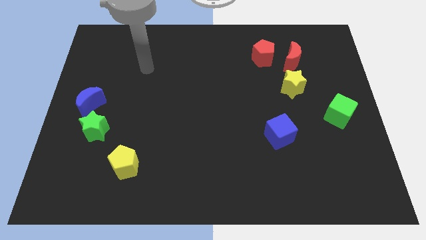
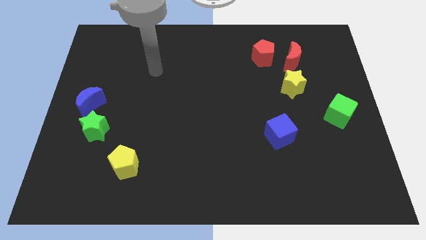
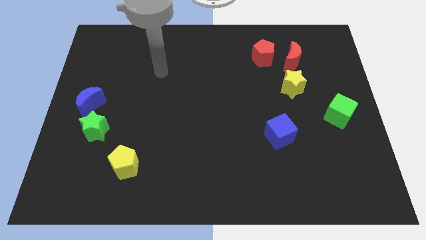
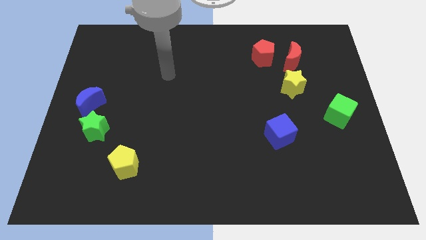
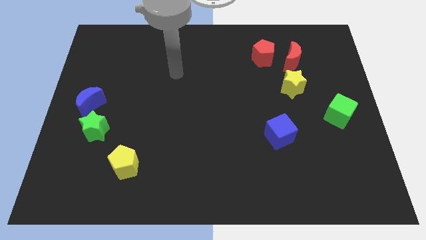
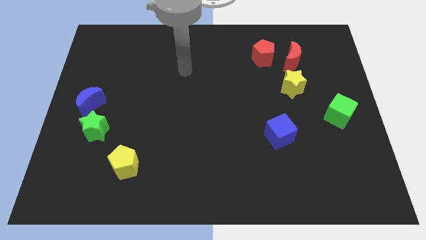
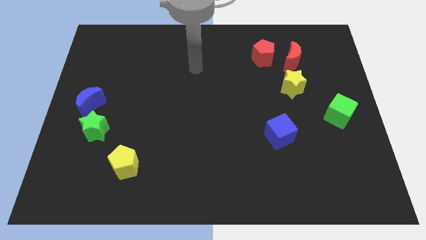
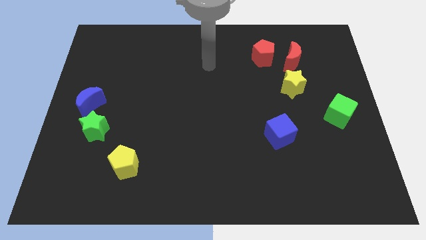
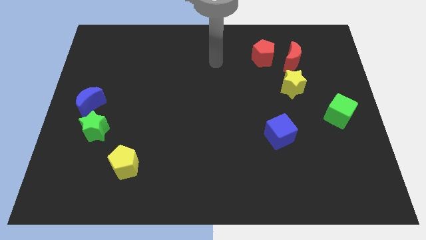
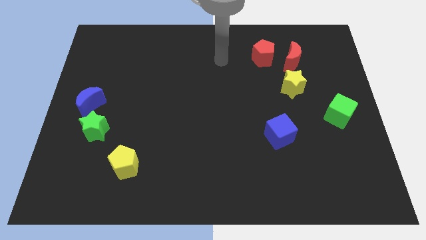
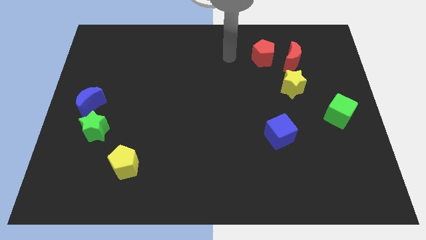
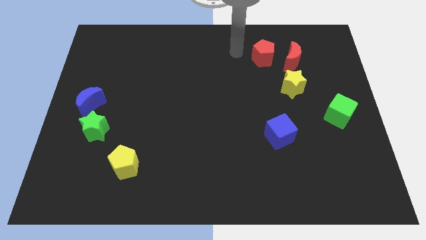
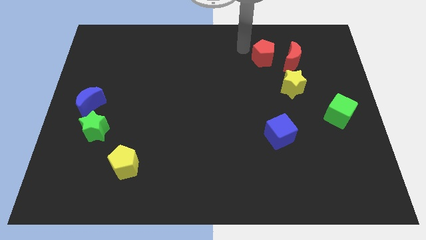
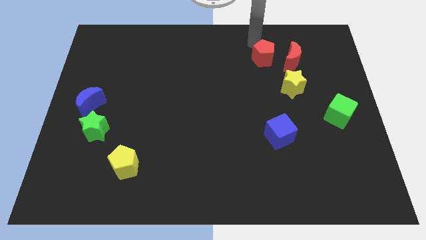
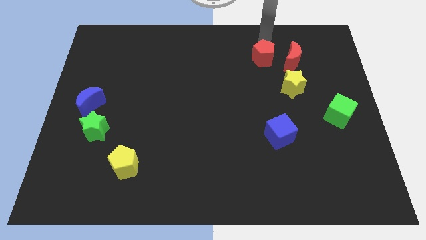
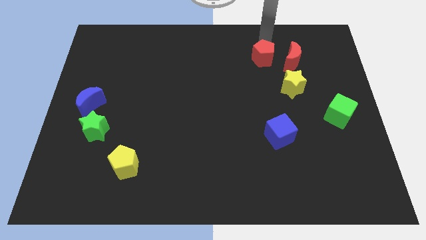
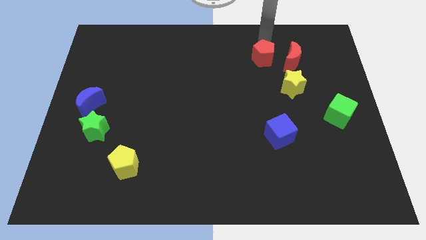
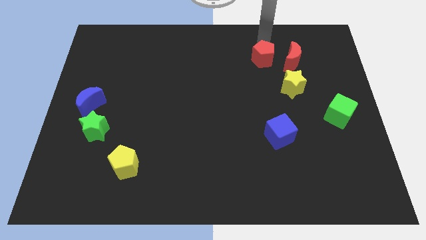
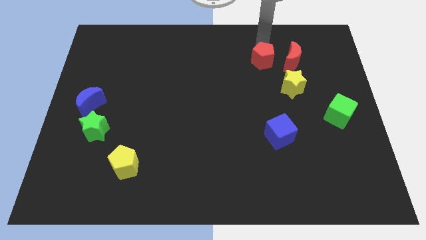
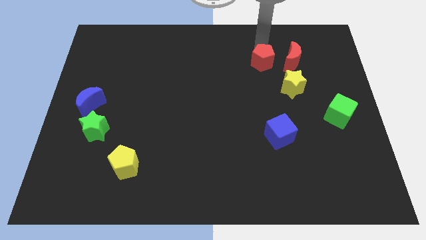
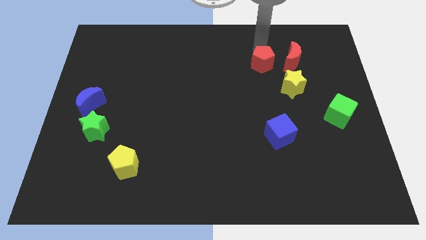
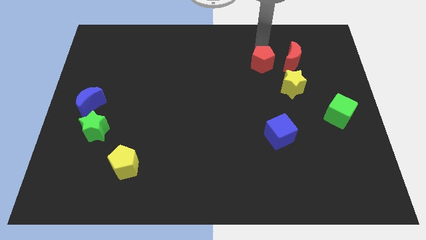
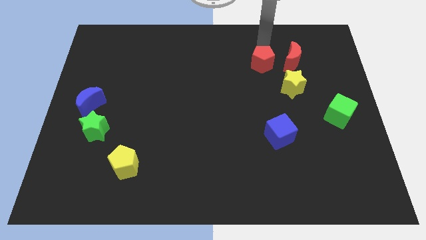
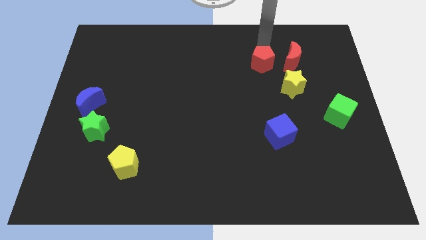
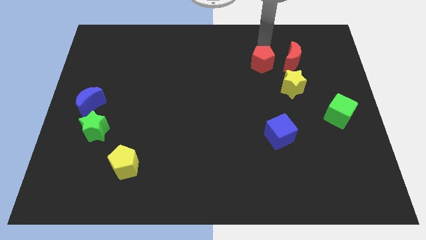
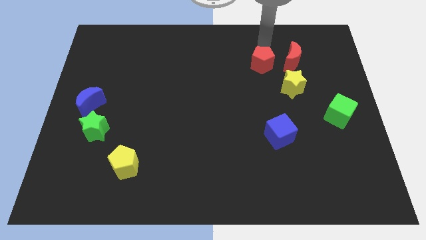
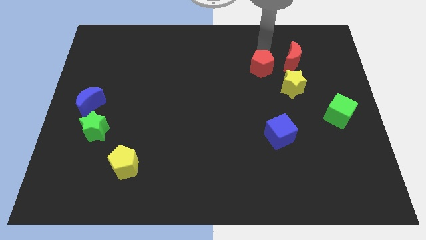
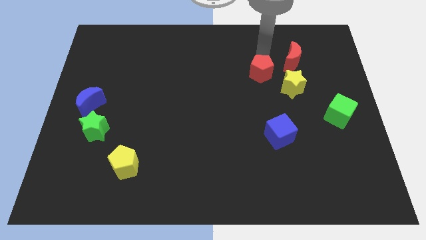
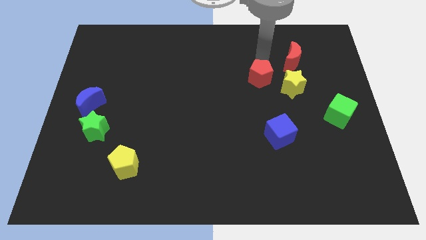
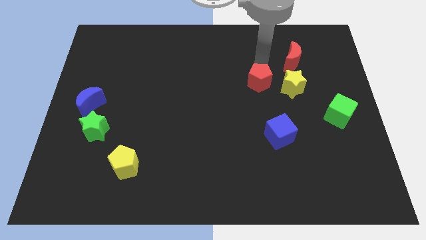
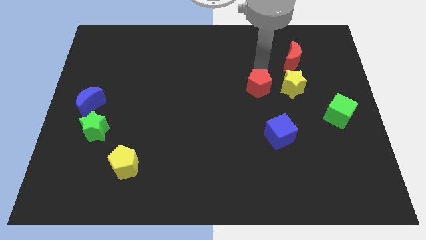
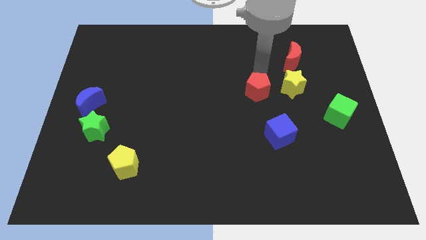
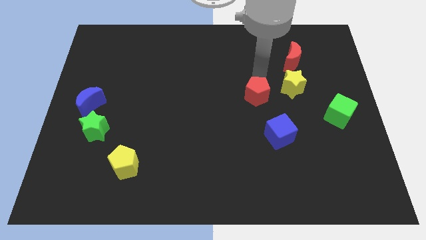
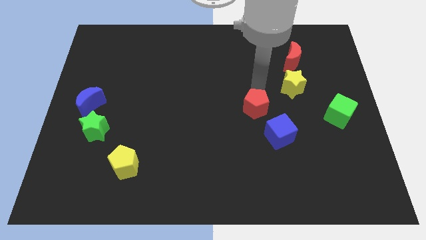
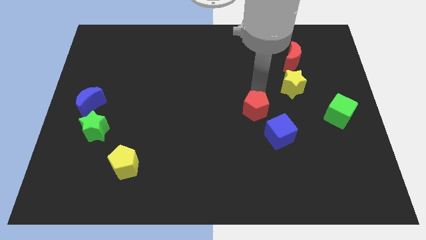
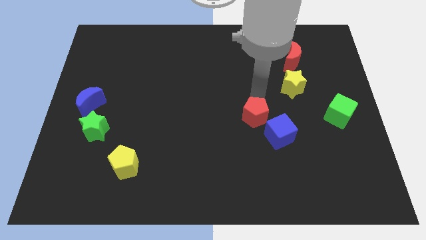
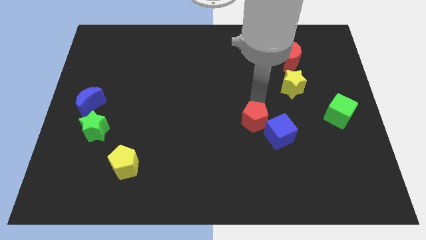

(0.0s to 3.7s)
move the red pentagon down

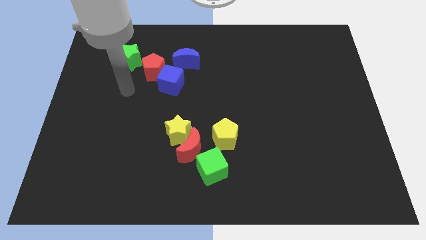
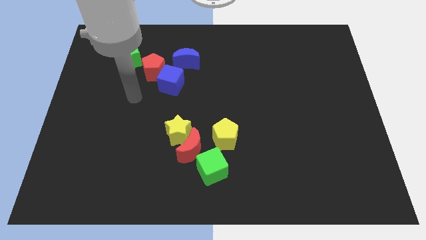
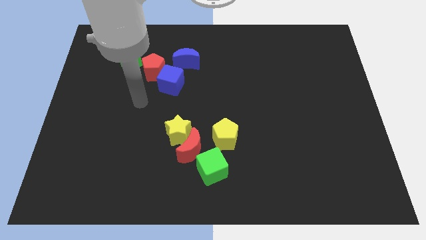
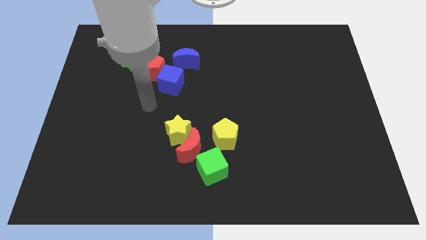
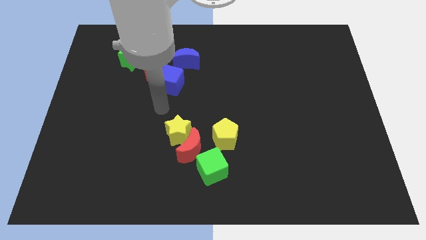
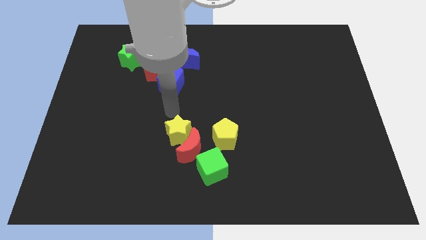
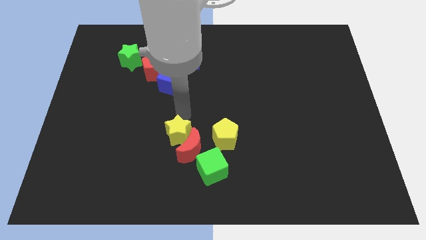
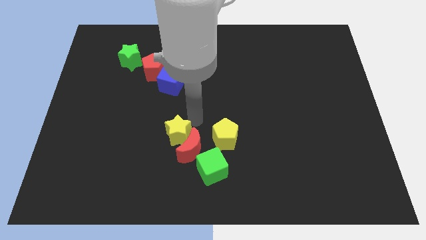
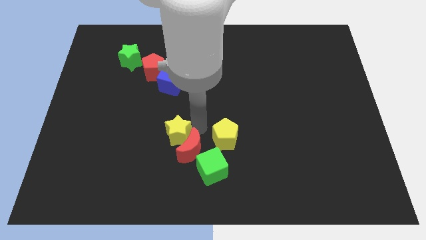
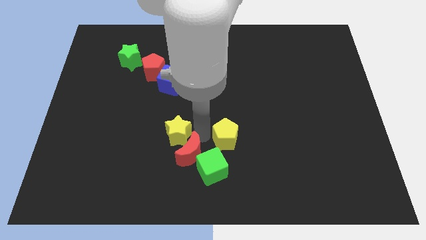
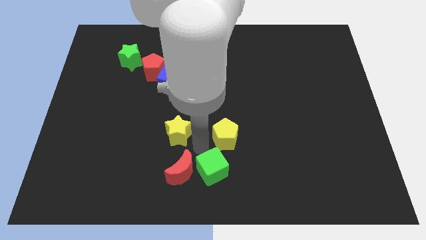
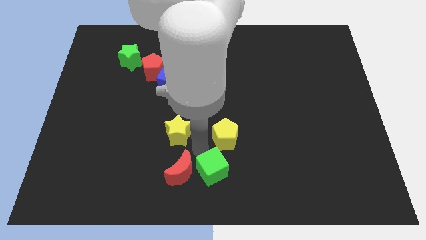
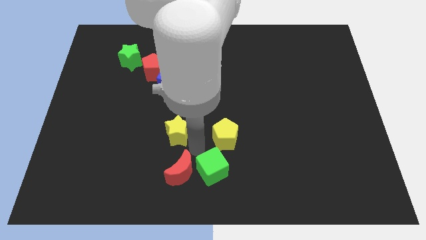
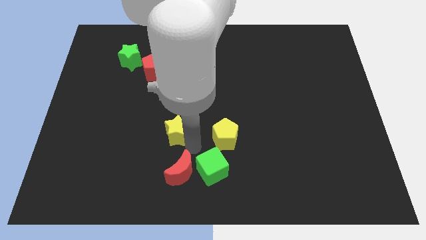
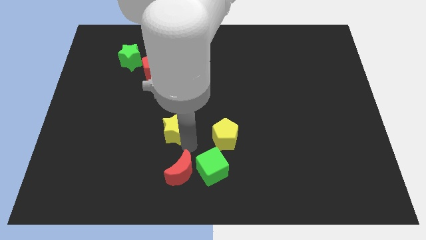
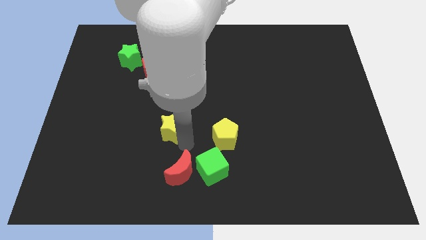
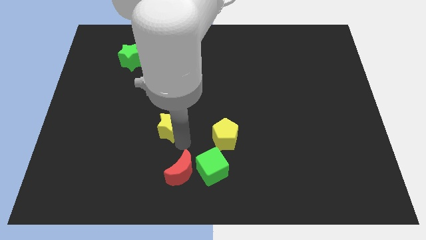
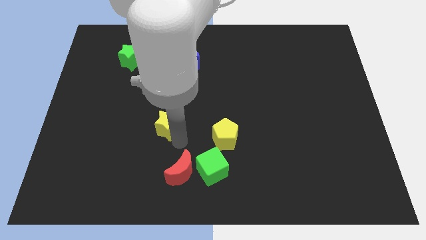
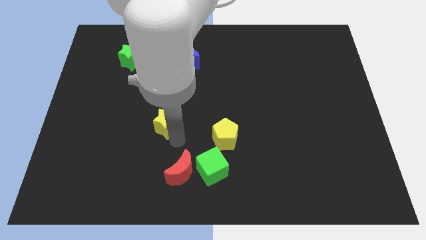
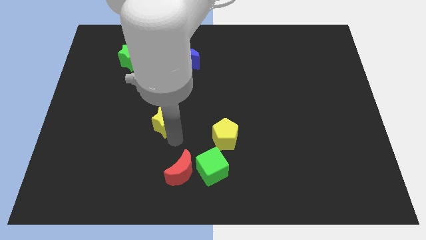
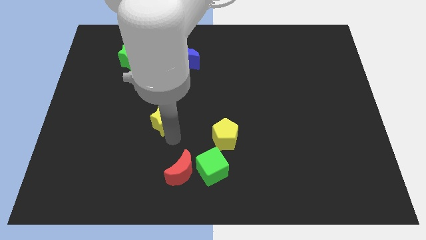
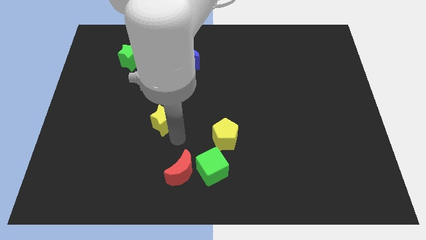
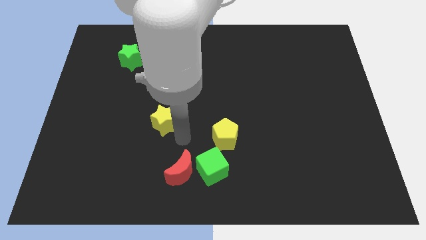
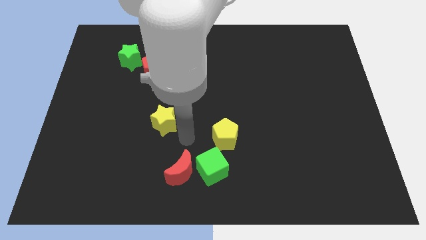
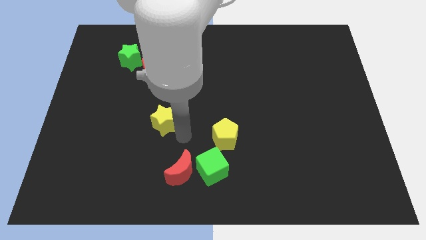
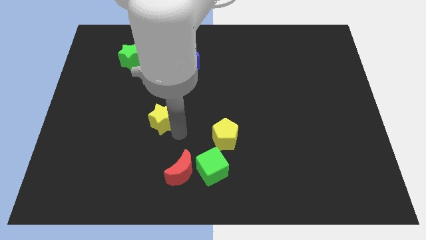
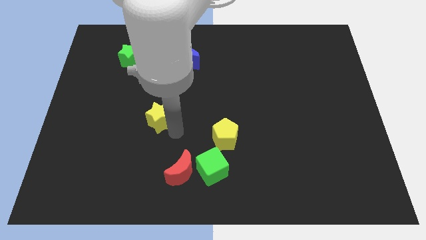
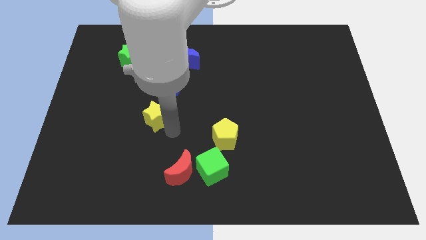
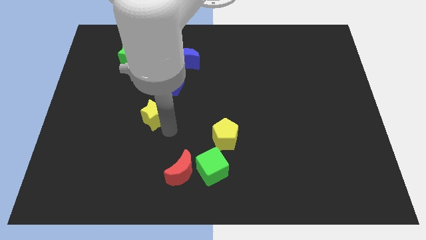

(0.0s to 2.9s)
move the yellow star diagonally upwards and left somewhat

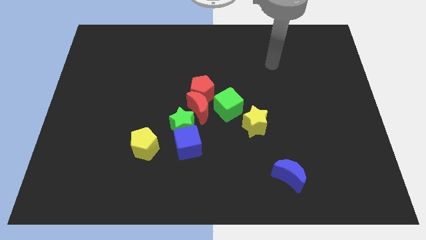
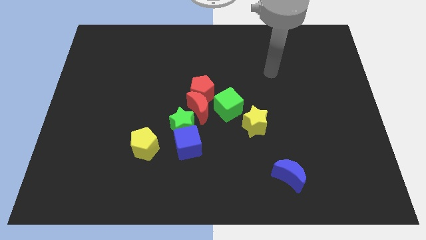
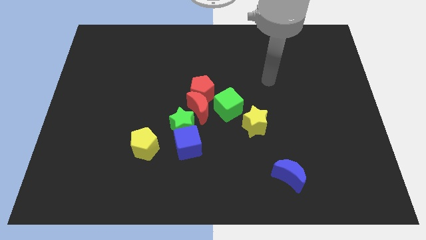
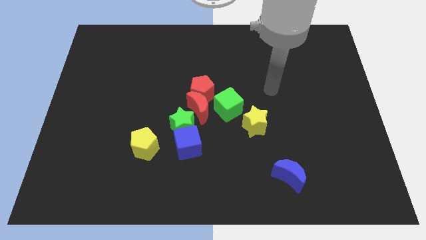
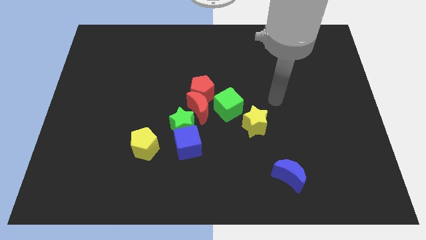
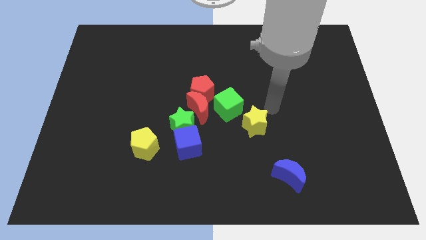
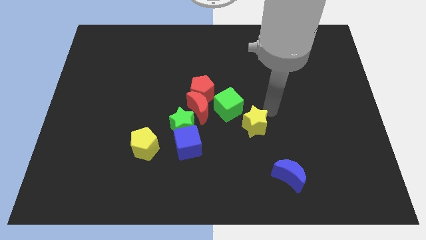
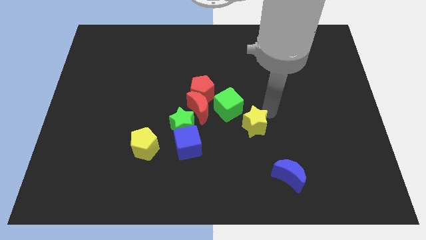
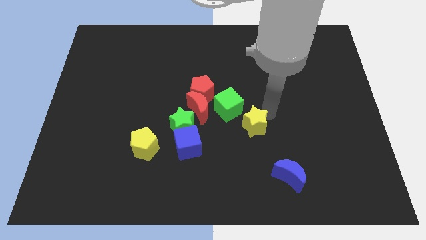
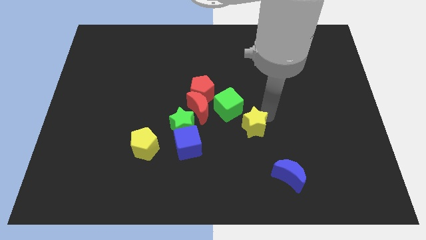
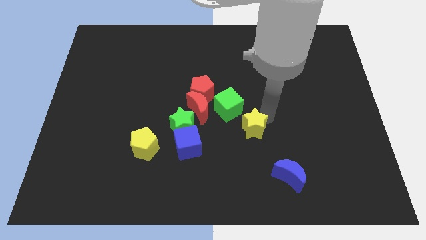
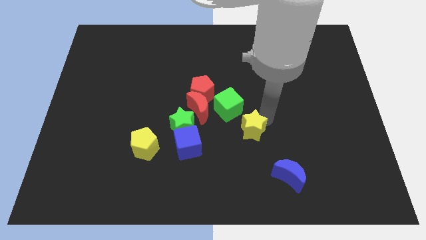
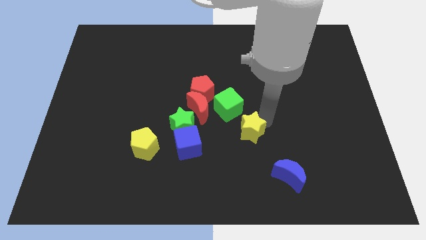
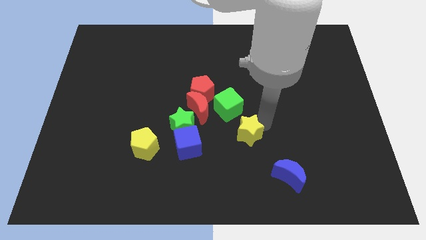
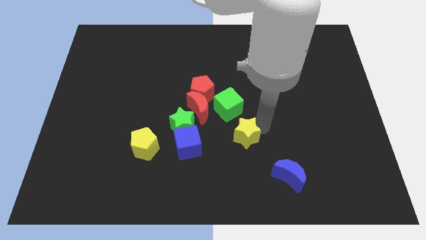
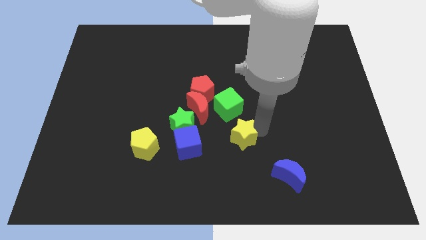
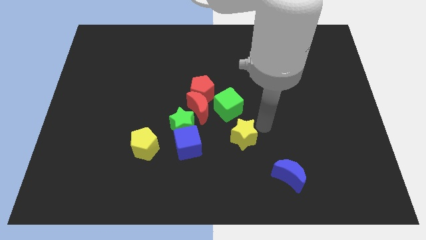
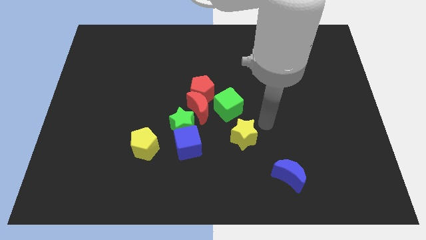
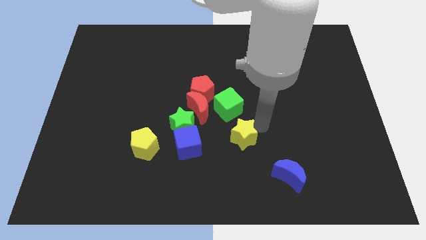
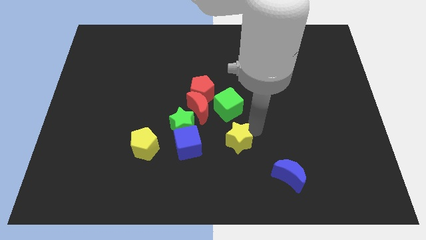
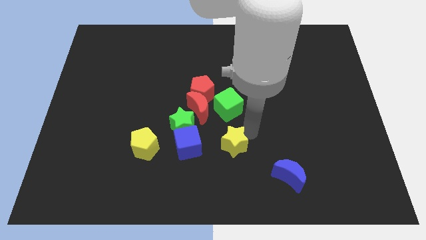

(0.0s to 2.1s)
slightly slide the yellow star diagonally down and to the left
